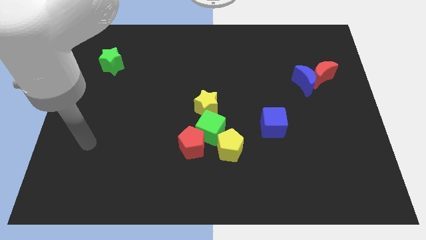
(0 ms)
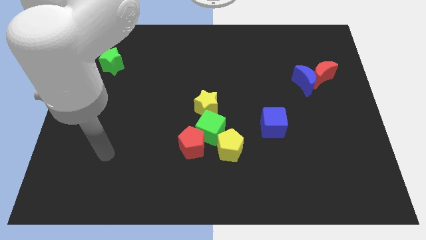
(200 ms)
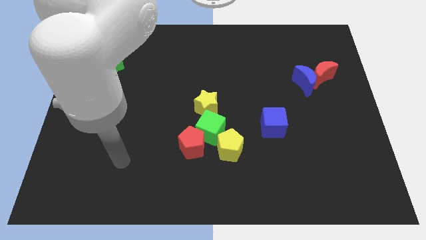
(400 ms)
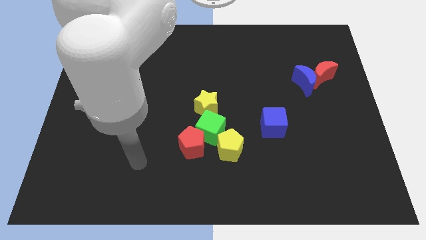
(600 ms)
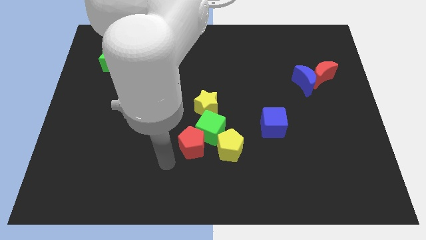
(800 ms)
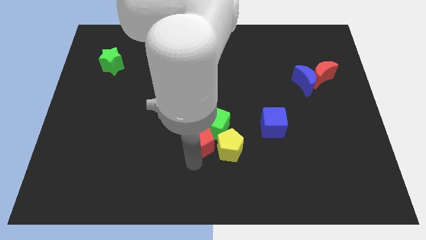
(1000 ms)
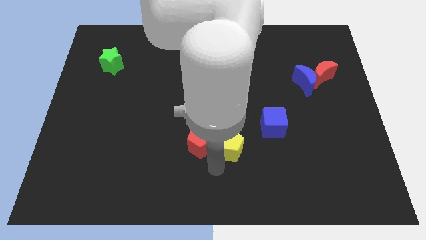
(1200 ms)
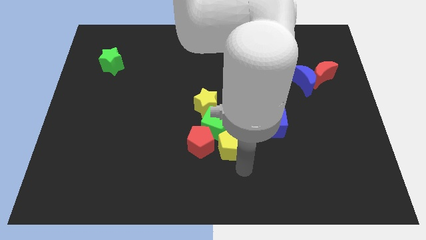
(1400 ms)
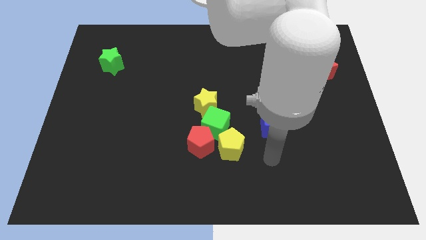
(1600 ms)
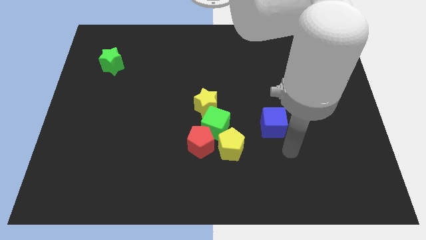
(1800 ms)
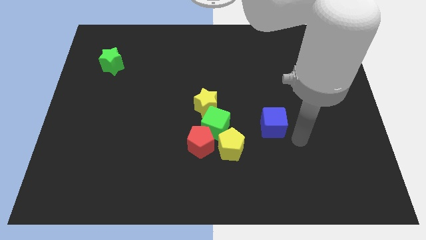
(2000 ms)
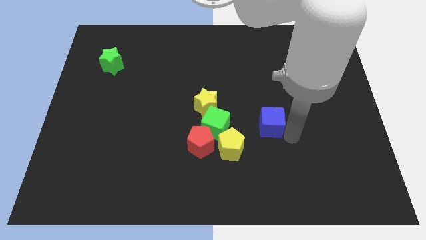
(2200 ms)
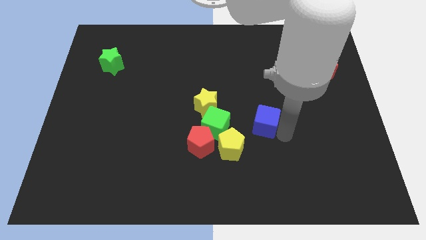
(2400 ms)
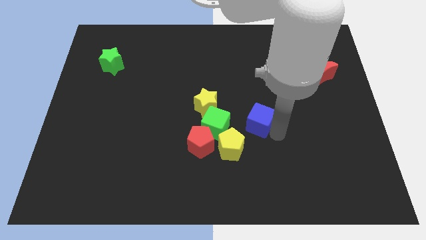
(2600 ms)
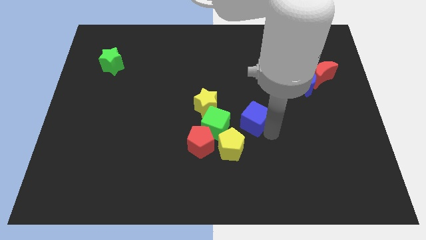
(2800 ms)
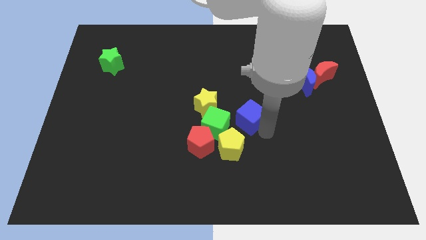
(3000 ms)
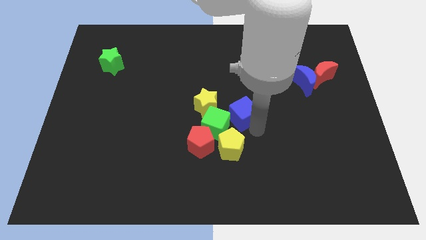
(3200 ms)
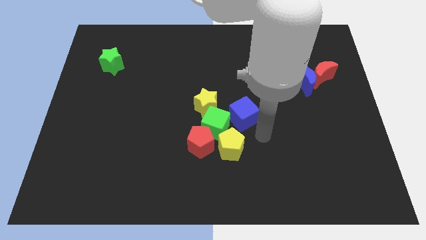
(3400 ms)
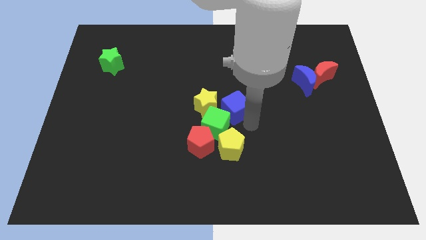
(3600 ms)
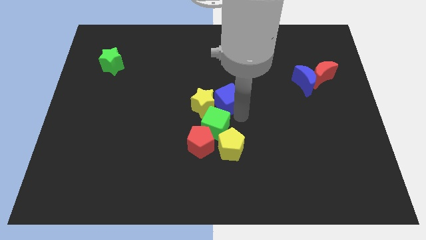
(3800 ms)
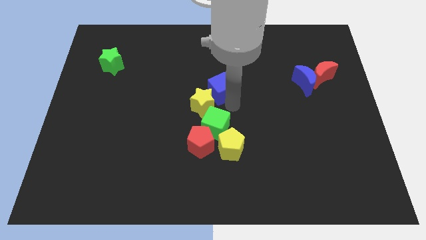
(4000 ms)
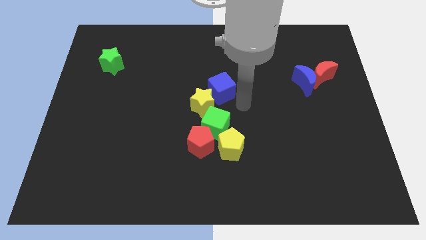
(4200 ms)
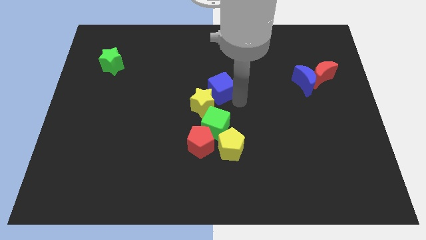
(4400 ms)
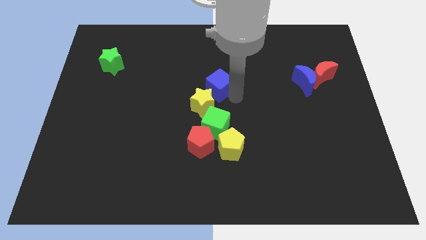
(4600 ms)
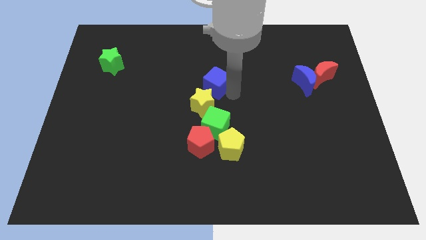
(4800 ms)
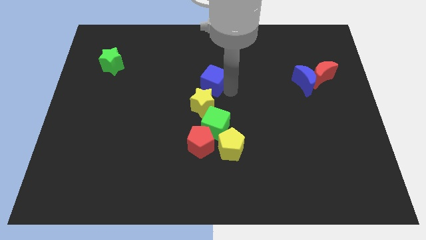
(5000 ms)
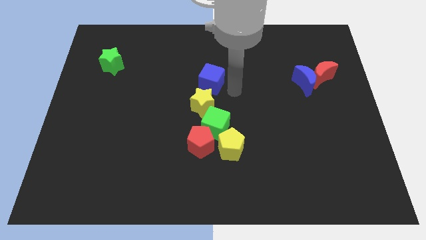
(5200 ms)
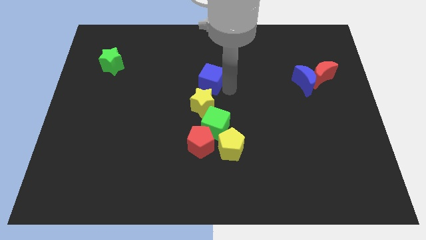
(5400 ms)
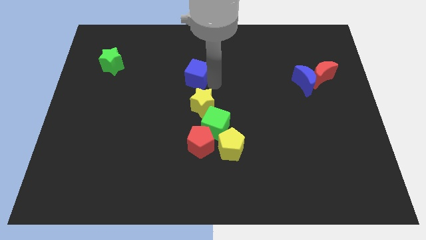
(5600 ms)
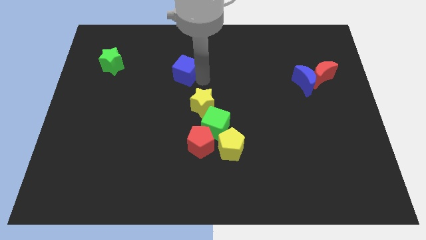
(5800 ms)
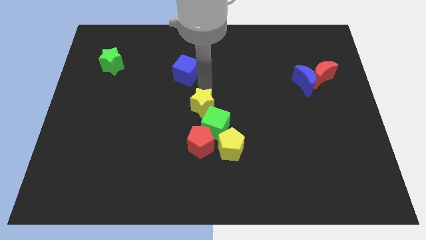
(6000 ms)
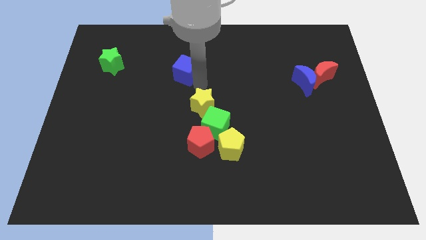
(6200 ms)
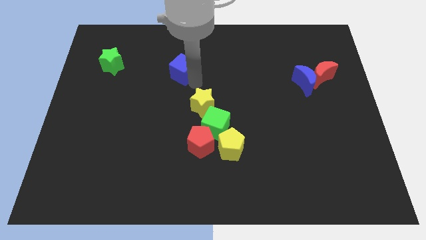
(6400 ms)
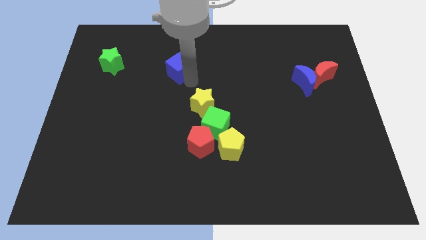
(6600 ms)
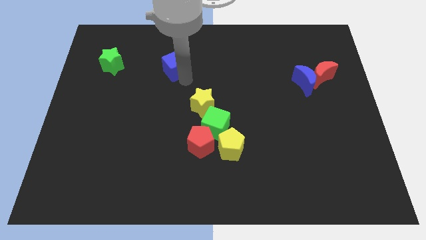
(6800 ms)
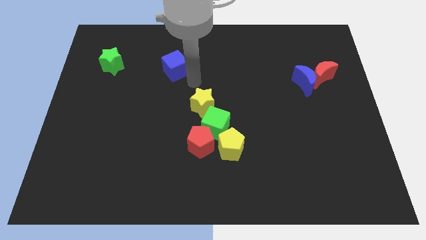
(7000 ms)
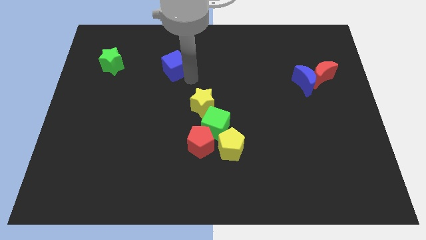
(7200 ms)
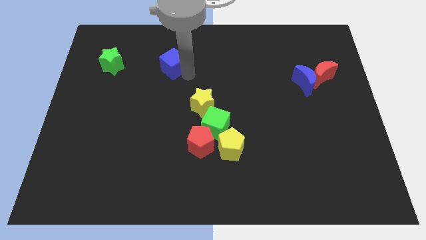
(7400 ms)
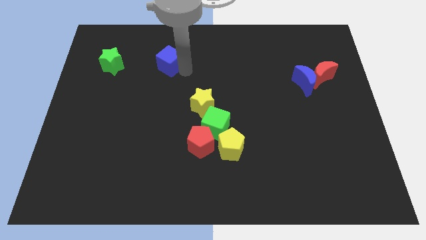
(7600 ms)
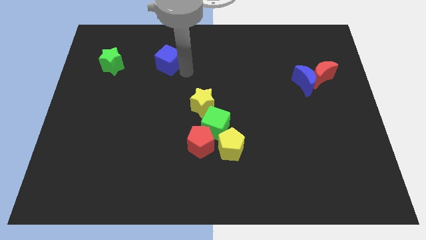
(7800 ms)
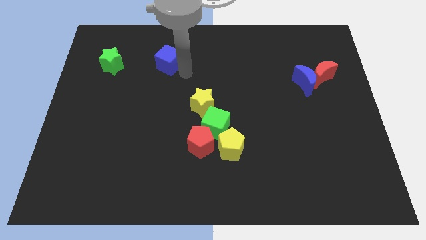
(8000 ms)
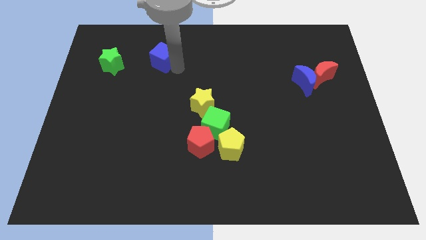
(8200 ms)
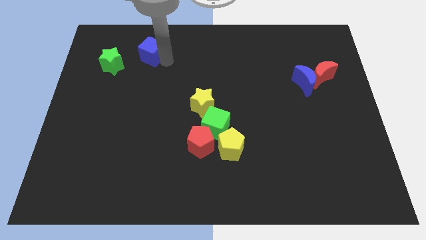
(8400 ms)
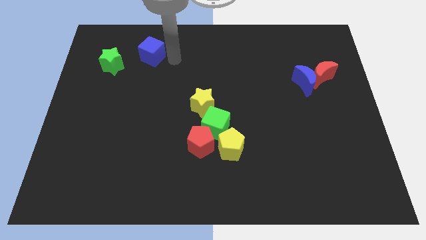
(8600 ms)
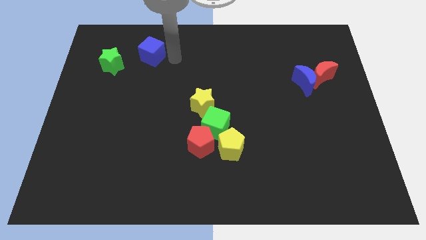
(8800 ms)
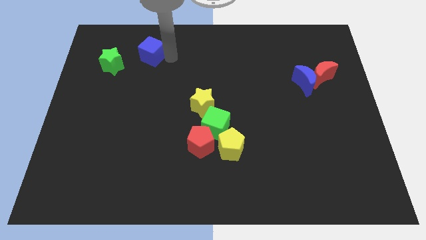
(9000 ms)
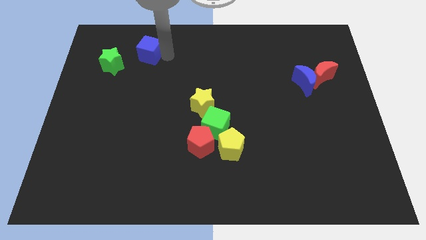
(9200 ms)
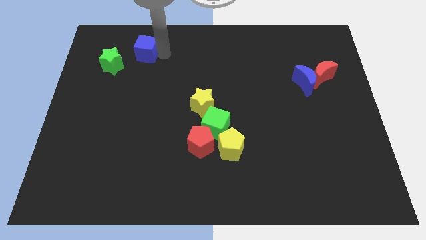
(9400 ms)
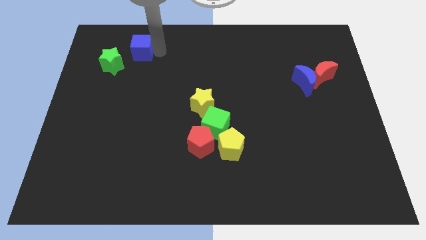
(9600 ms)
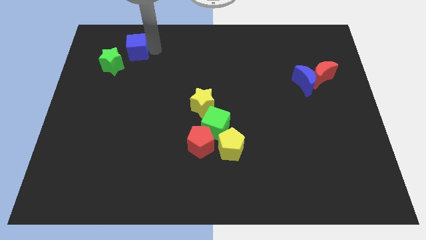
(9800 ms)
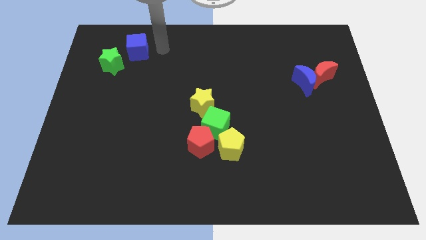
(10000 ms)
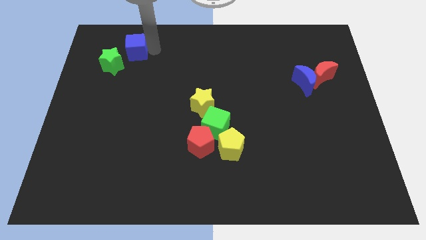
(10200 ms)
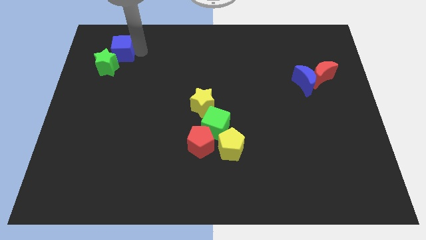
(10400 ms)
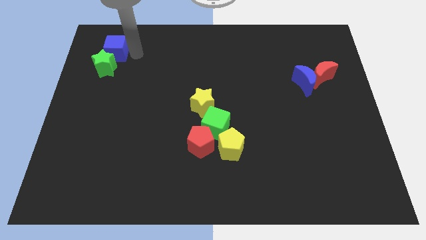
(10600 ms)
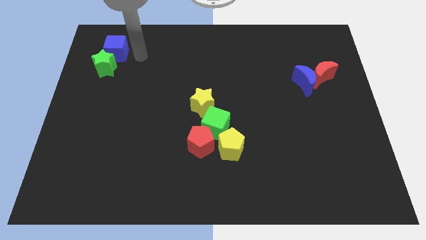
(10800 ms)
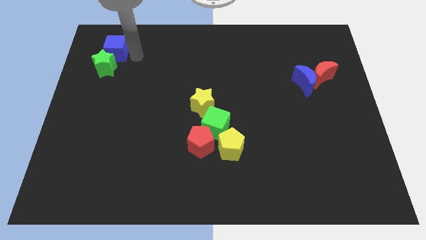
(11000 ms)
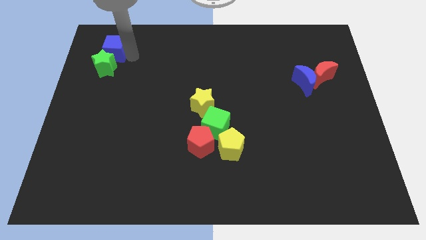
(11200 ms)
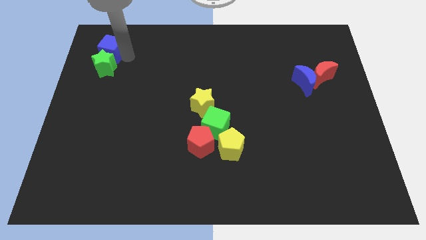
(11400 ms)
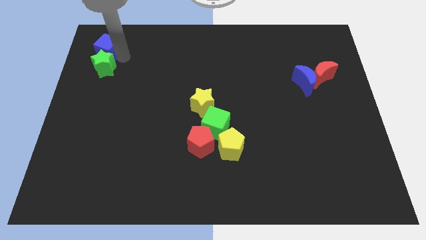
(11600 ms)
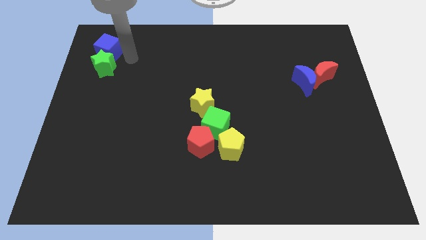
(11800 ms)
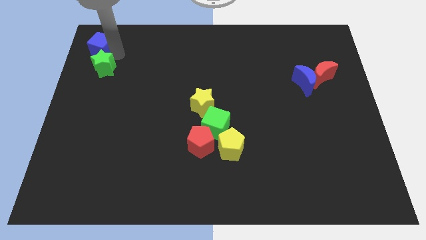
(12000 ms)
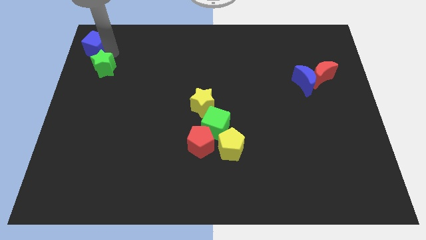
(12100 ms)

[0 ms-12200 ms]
put the blue cube to the upper left corner

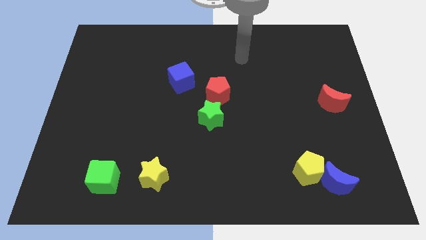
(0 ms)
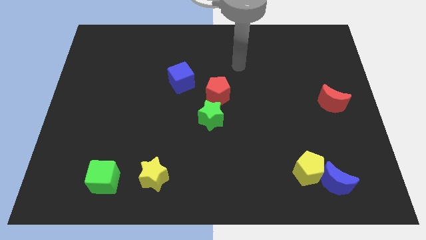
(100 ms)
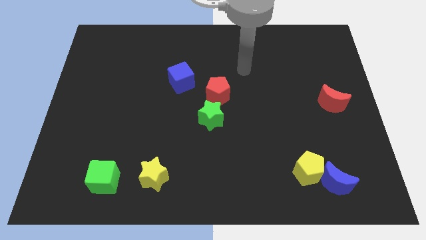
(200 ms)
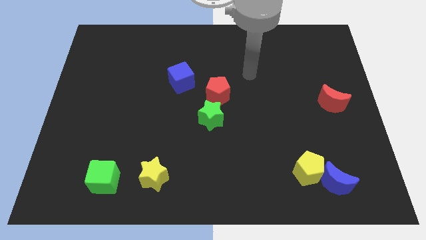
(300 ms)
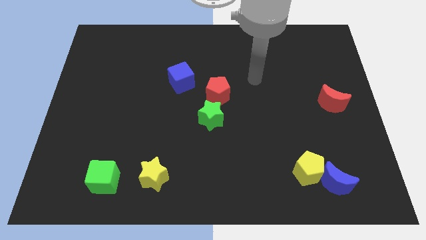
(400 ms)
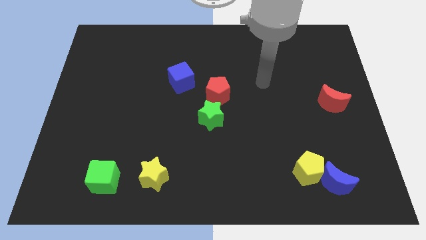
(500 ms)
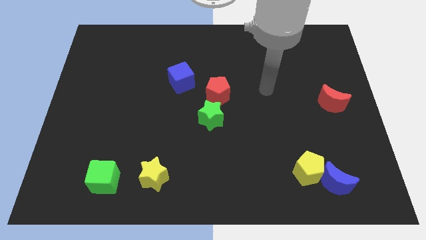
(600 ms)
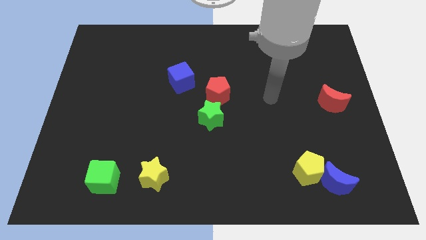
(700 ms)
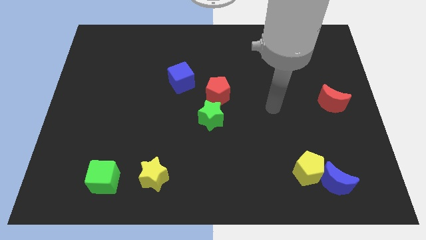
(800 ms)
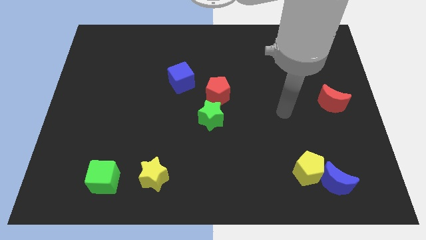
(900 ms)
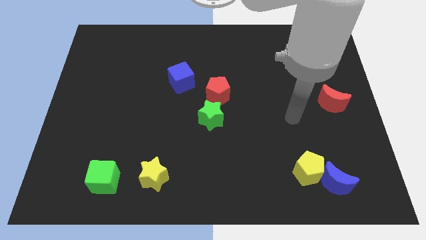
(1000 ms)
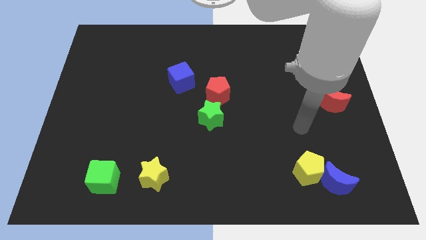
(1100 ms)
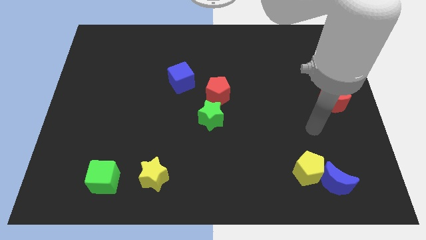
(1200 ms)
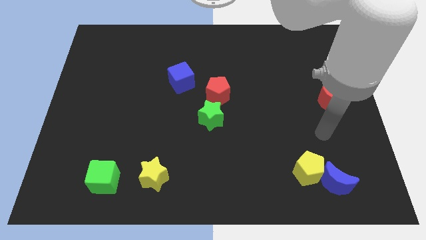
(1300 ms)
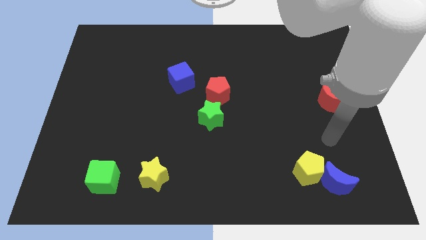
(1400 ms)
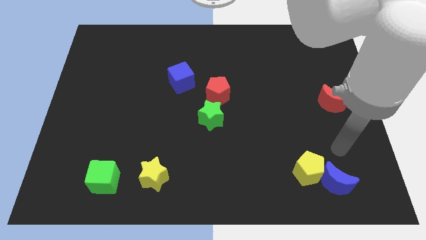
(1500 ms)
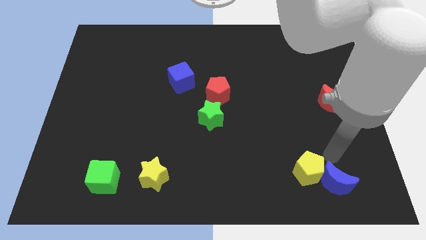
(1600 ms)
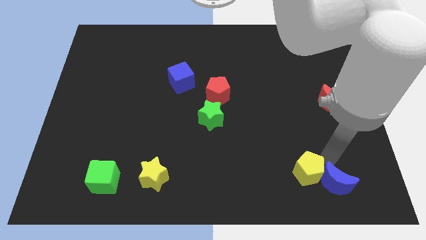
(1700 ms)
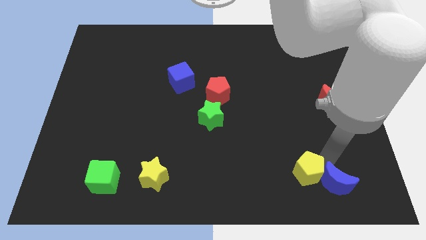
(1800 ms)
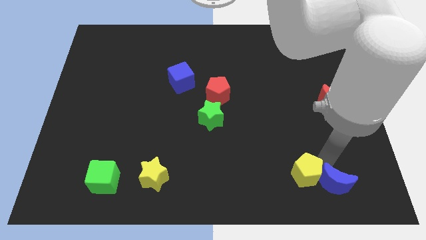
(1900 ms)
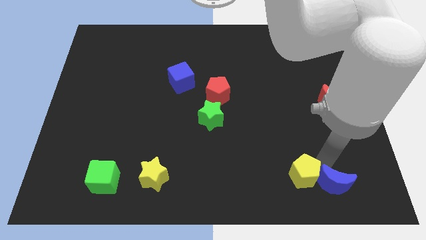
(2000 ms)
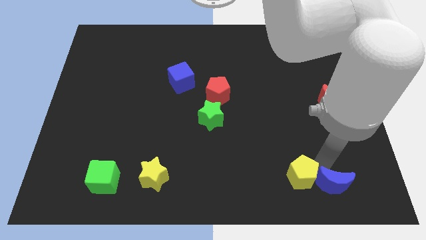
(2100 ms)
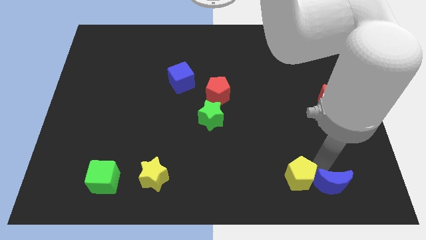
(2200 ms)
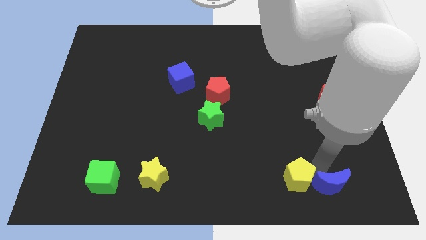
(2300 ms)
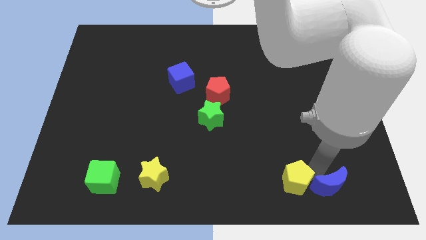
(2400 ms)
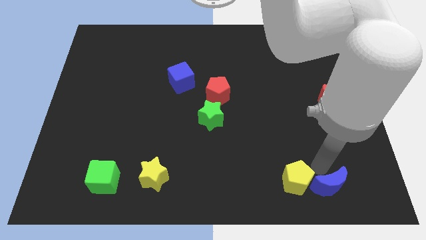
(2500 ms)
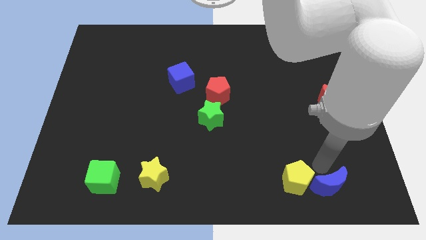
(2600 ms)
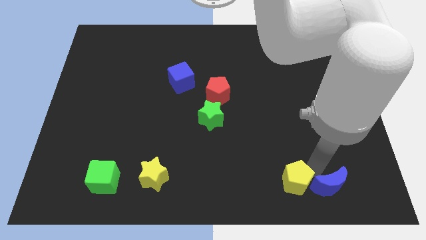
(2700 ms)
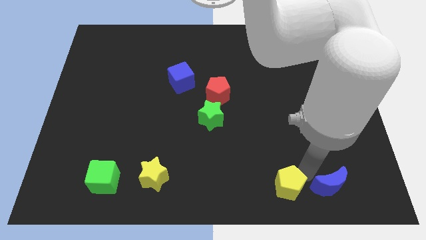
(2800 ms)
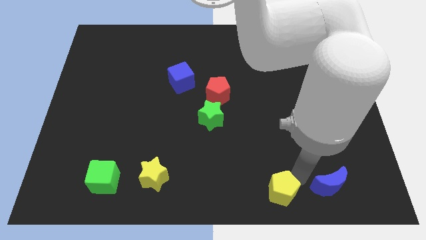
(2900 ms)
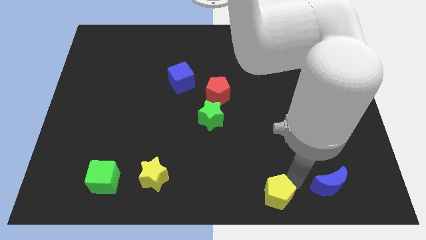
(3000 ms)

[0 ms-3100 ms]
move the yellow pentagon to the bottom side
